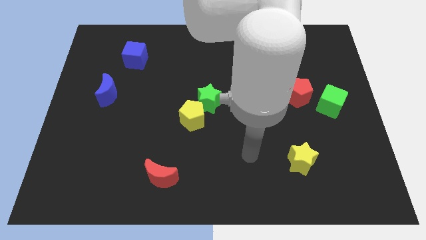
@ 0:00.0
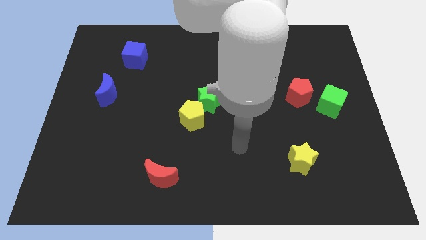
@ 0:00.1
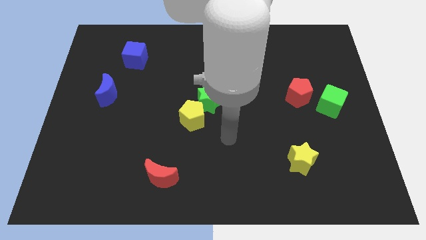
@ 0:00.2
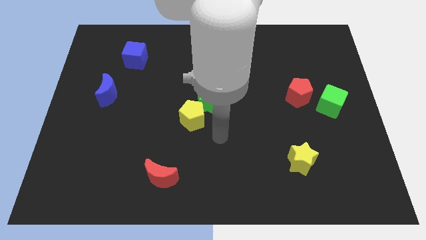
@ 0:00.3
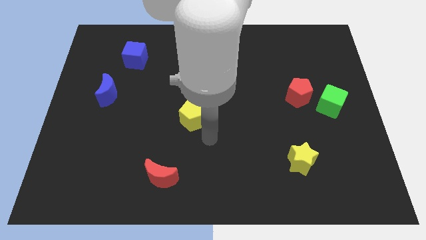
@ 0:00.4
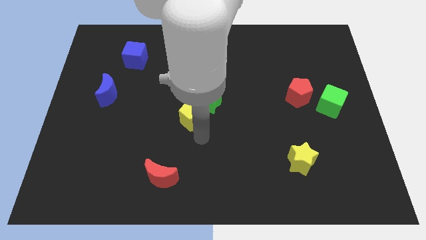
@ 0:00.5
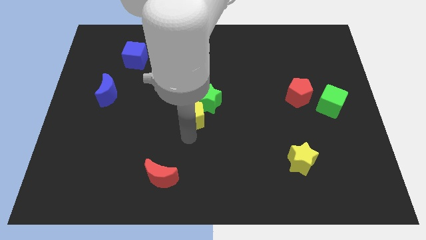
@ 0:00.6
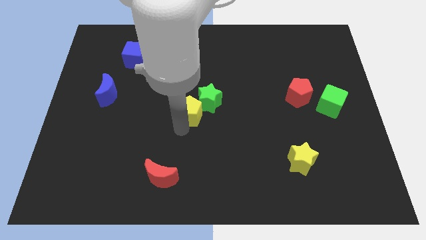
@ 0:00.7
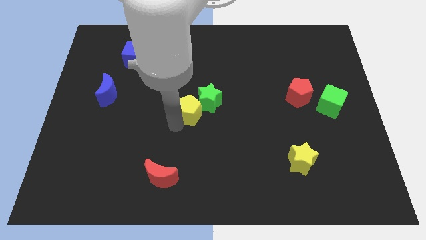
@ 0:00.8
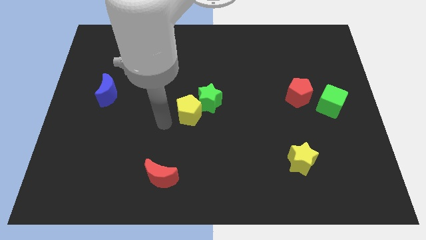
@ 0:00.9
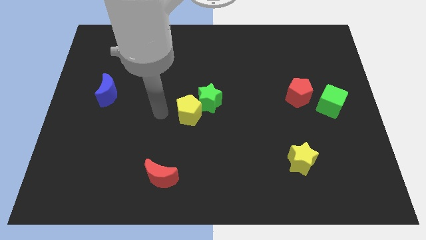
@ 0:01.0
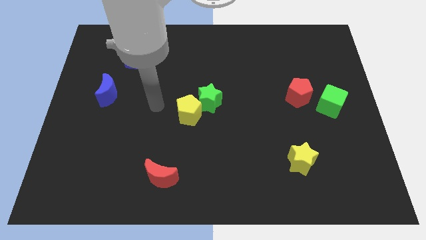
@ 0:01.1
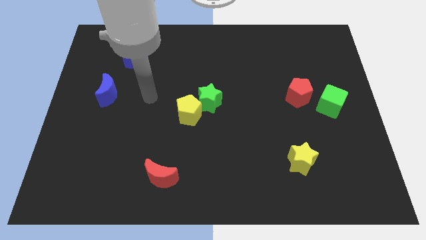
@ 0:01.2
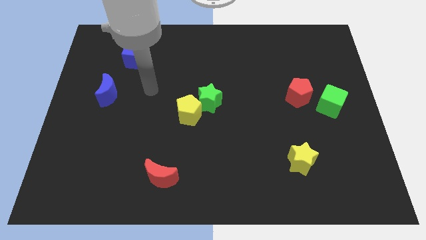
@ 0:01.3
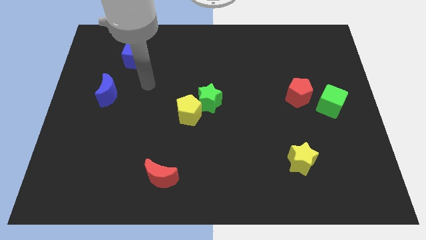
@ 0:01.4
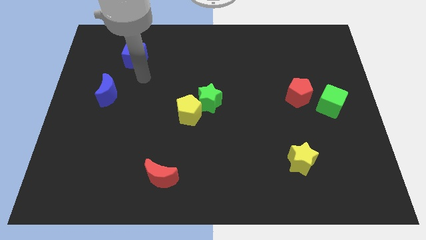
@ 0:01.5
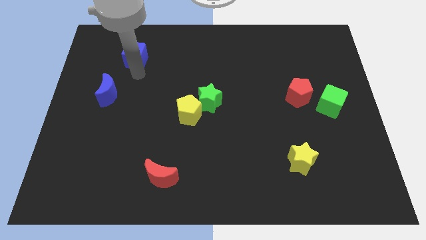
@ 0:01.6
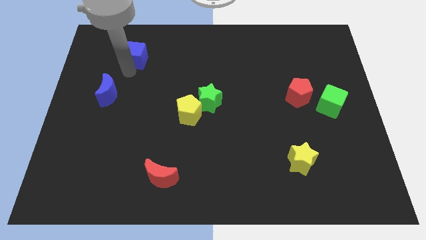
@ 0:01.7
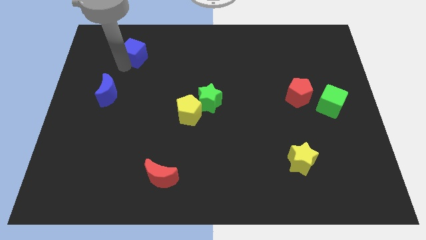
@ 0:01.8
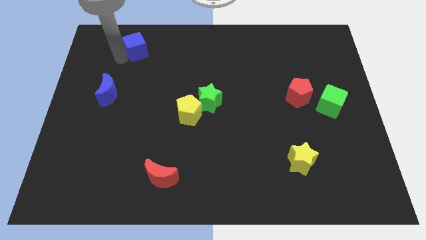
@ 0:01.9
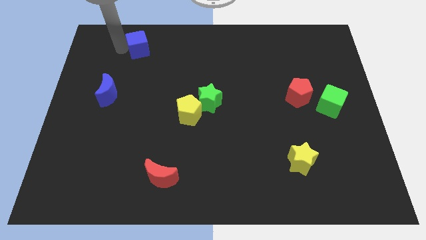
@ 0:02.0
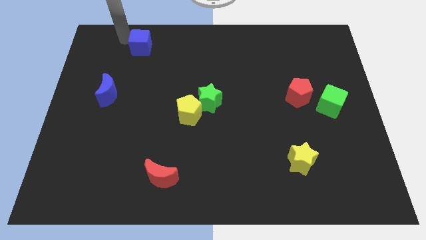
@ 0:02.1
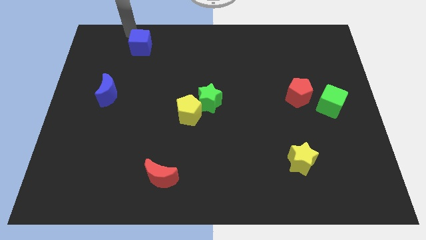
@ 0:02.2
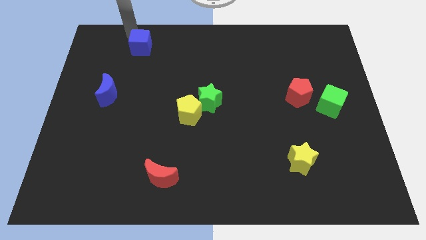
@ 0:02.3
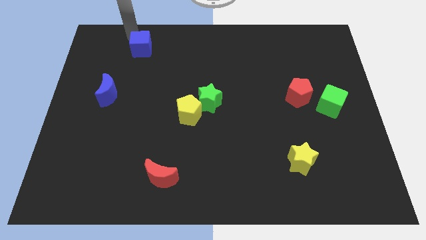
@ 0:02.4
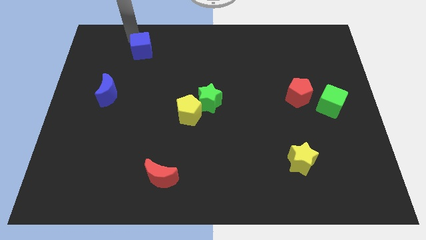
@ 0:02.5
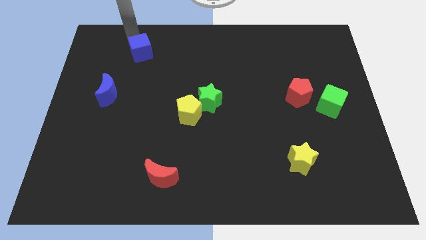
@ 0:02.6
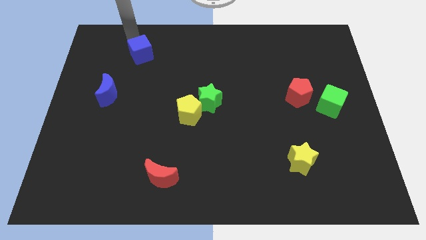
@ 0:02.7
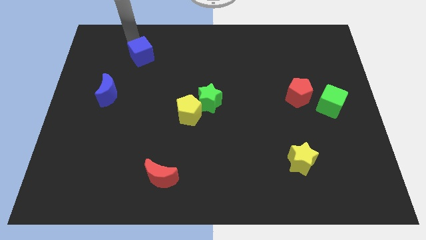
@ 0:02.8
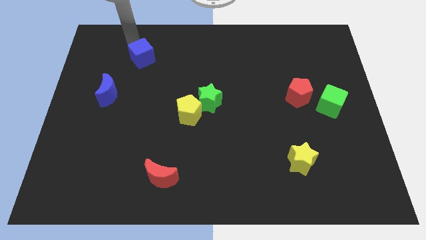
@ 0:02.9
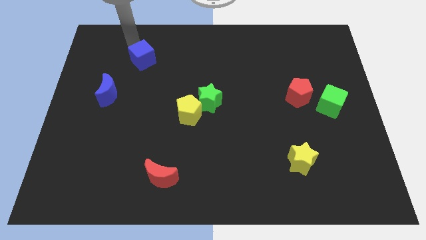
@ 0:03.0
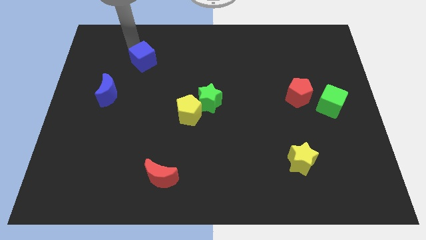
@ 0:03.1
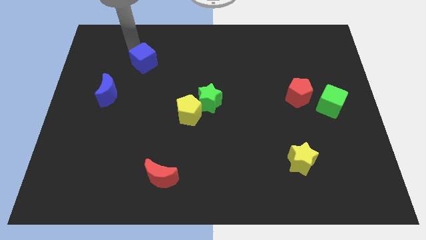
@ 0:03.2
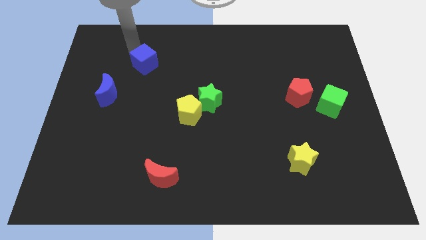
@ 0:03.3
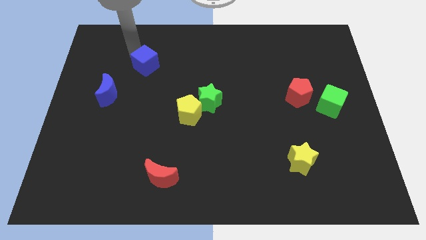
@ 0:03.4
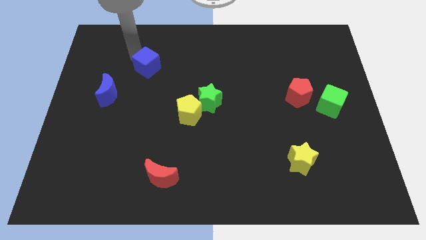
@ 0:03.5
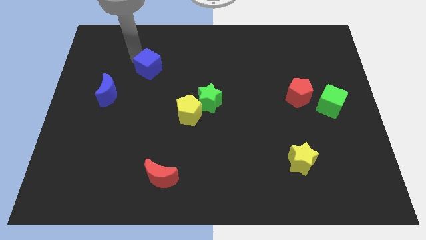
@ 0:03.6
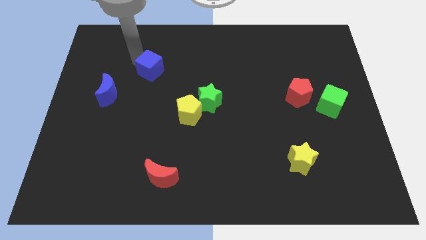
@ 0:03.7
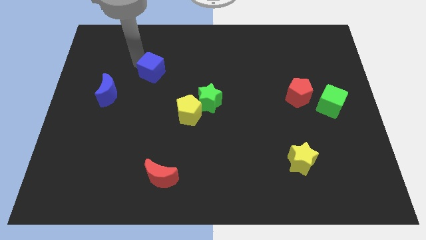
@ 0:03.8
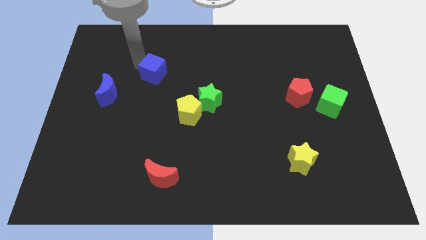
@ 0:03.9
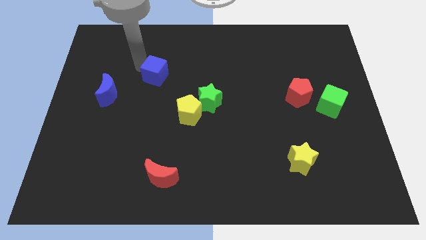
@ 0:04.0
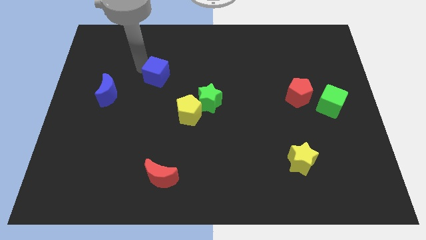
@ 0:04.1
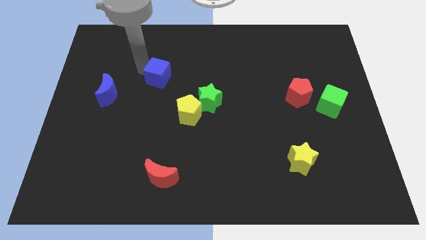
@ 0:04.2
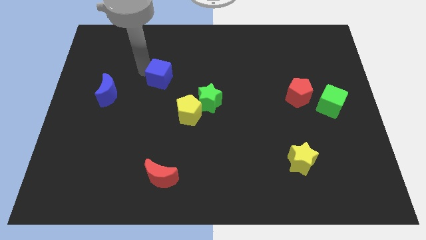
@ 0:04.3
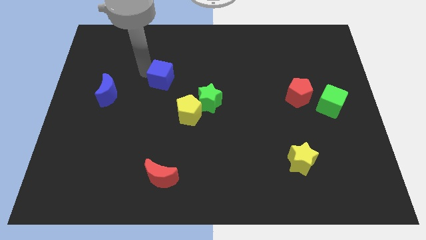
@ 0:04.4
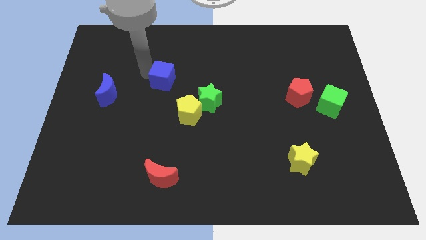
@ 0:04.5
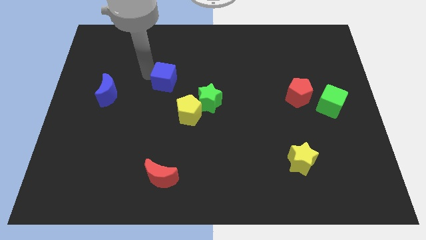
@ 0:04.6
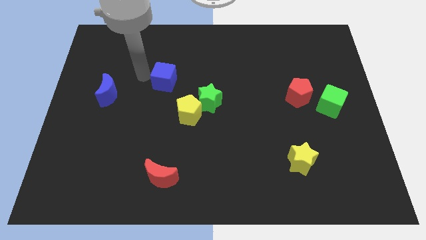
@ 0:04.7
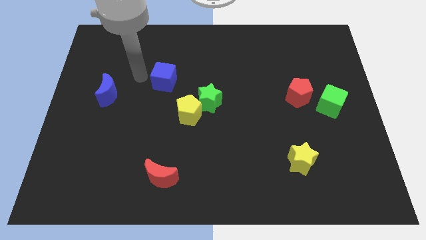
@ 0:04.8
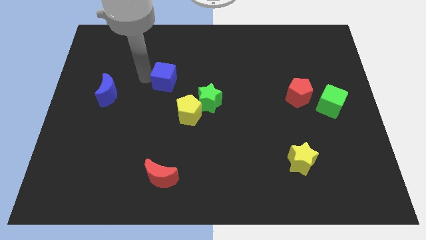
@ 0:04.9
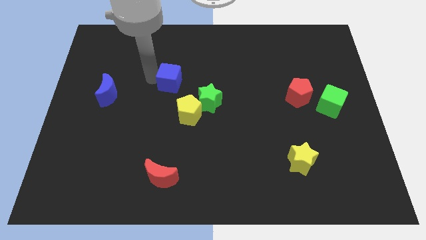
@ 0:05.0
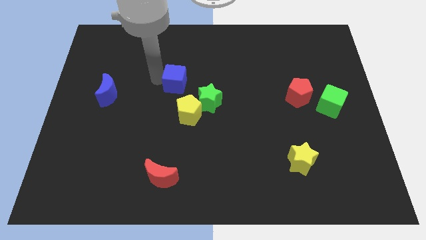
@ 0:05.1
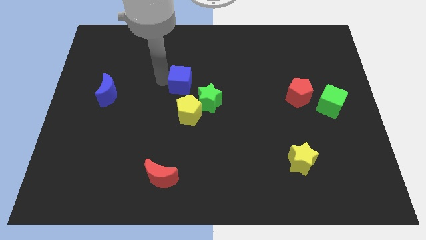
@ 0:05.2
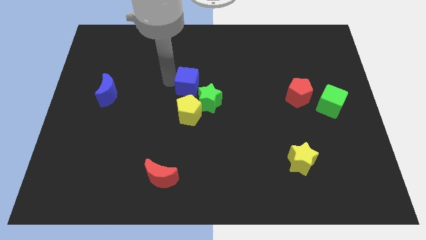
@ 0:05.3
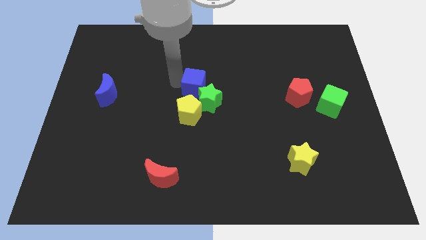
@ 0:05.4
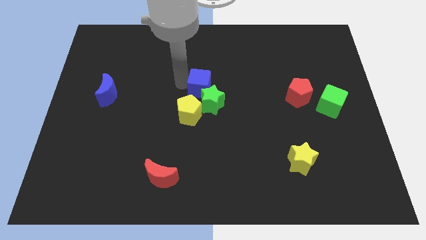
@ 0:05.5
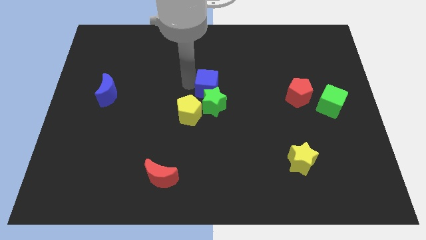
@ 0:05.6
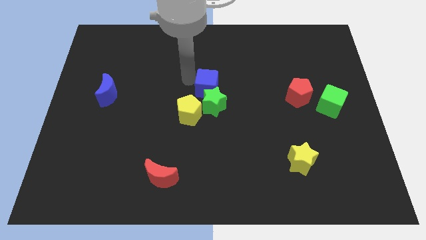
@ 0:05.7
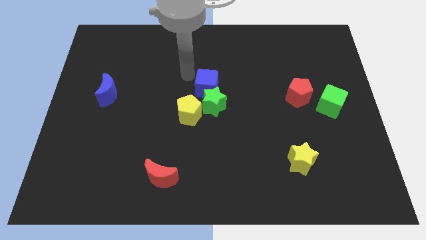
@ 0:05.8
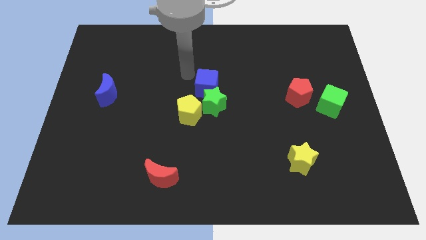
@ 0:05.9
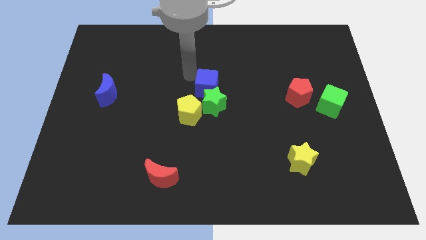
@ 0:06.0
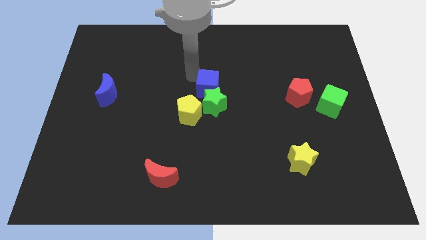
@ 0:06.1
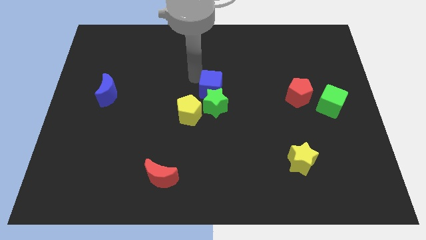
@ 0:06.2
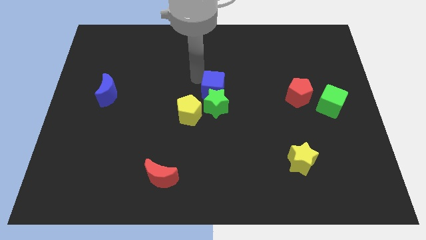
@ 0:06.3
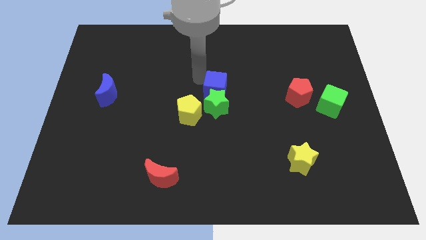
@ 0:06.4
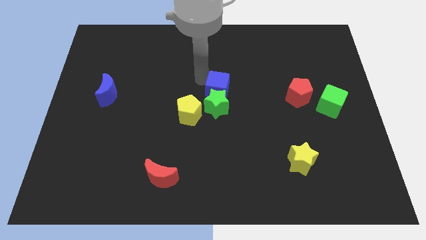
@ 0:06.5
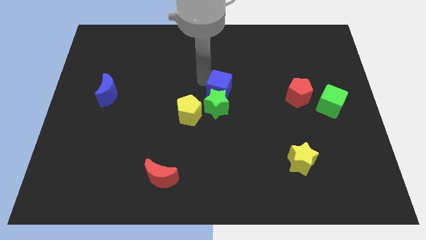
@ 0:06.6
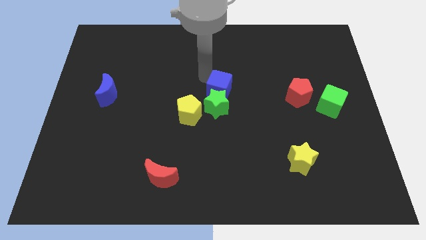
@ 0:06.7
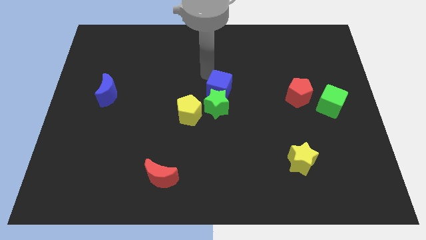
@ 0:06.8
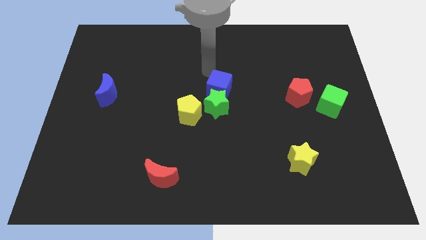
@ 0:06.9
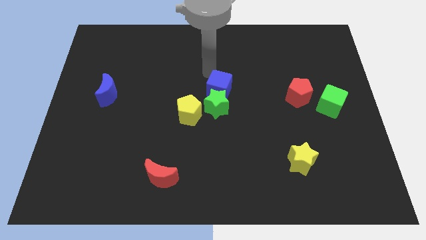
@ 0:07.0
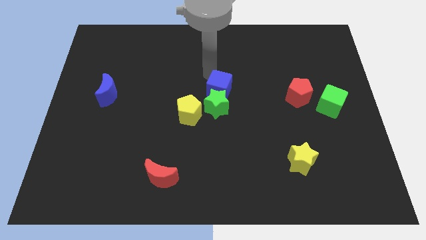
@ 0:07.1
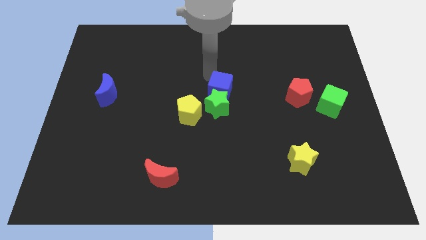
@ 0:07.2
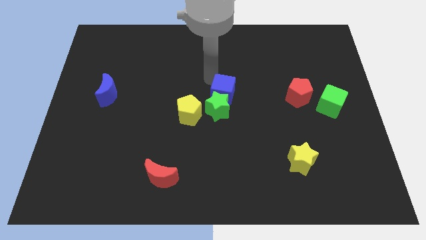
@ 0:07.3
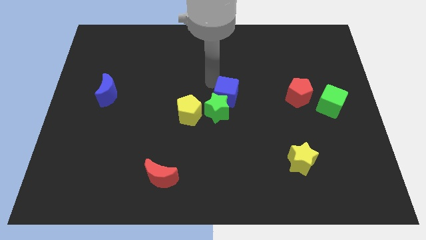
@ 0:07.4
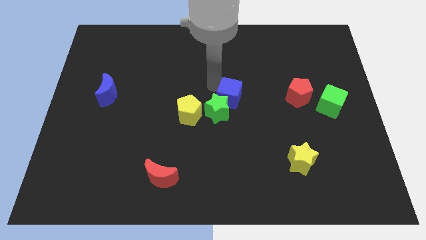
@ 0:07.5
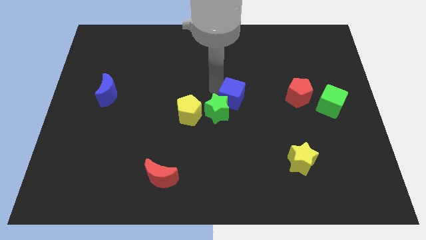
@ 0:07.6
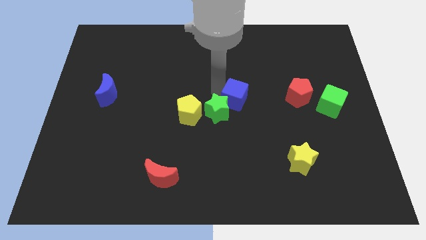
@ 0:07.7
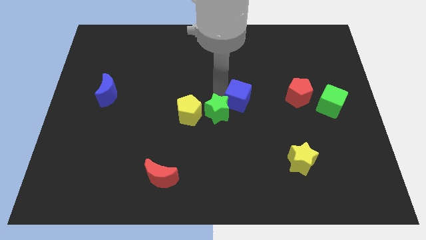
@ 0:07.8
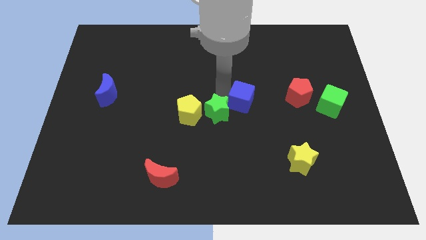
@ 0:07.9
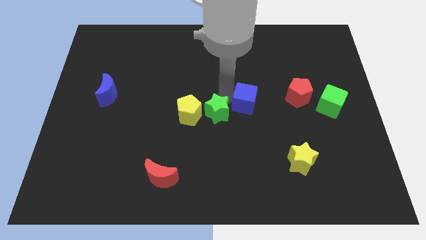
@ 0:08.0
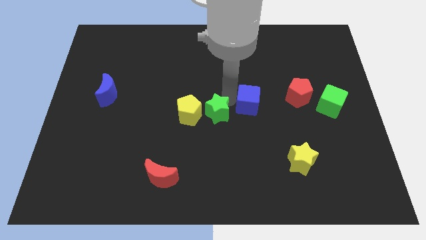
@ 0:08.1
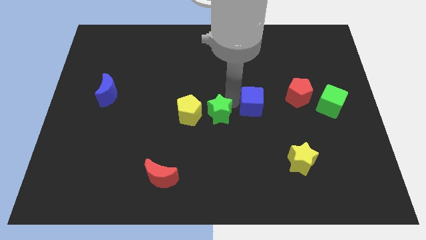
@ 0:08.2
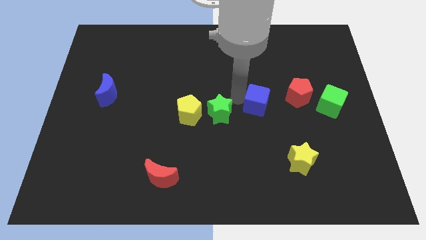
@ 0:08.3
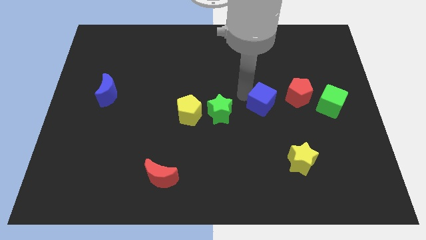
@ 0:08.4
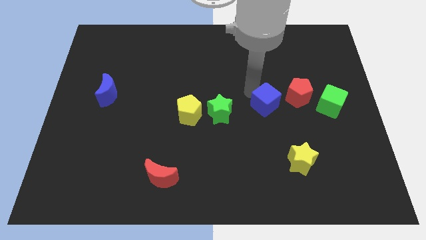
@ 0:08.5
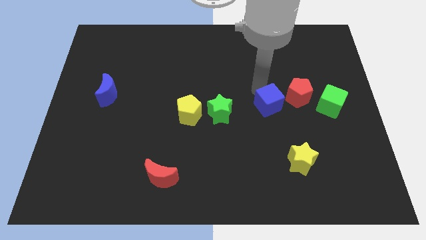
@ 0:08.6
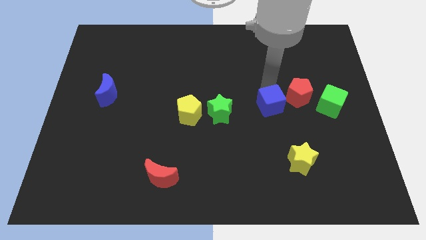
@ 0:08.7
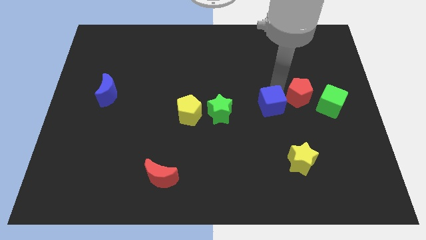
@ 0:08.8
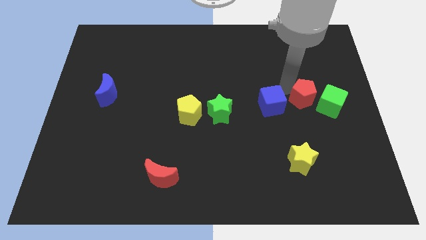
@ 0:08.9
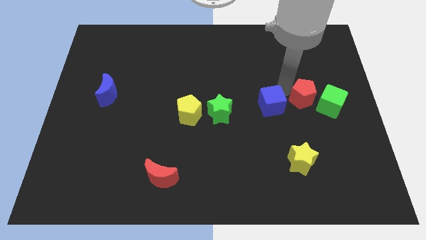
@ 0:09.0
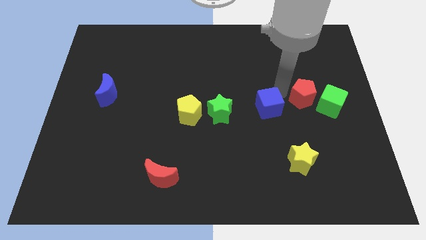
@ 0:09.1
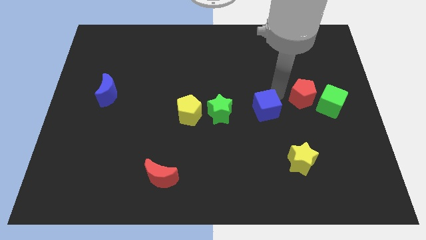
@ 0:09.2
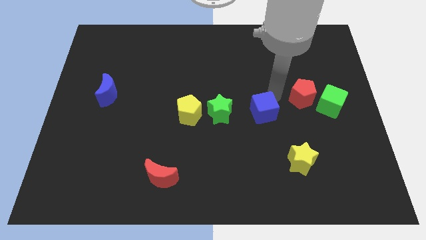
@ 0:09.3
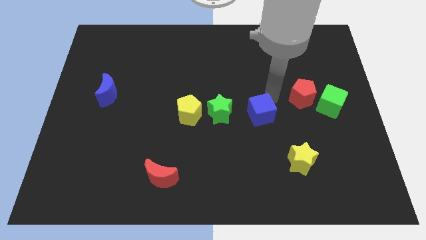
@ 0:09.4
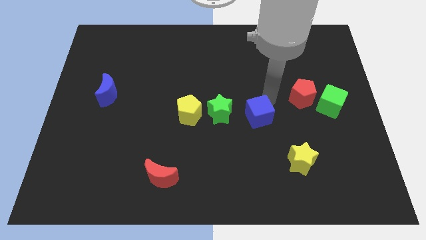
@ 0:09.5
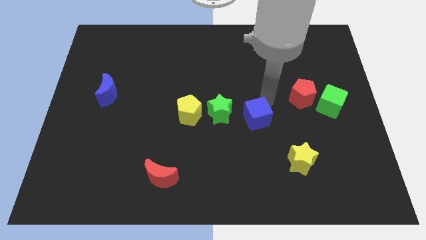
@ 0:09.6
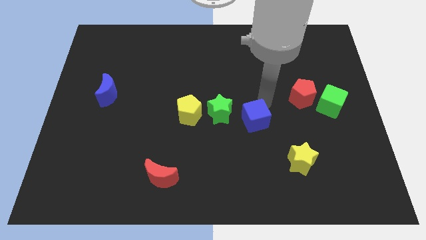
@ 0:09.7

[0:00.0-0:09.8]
push the blue cube to the bottom right of the green star
